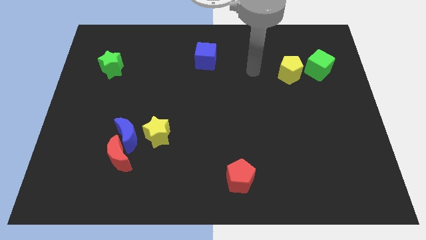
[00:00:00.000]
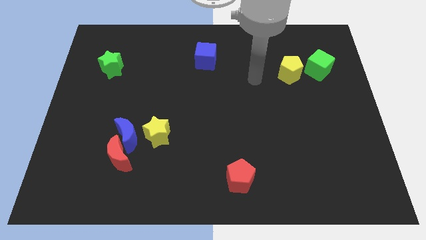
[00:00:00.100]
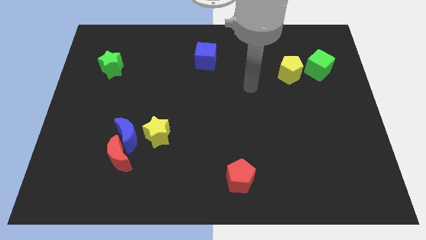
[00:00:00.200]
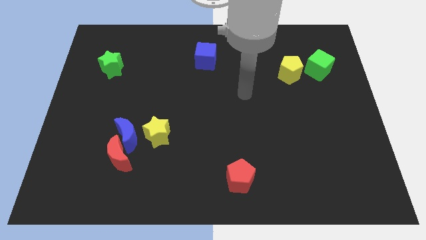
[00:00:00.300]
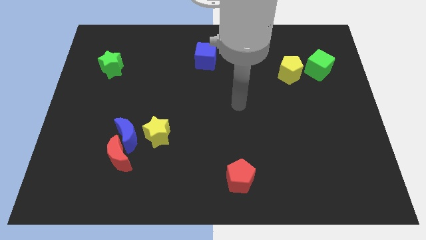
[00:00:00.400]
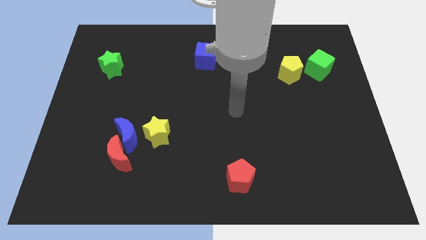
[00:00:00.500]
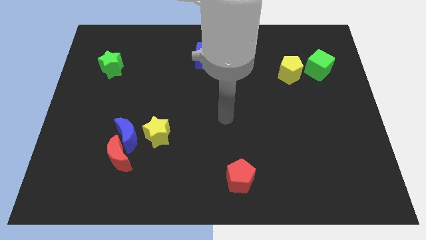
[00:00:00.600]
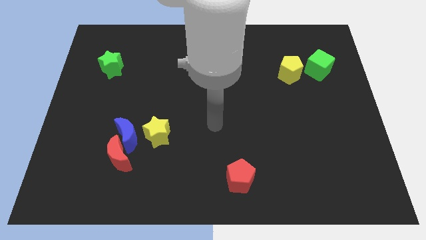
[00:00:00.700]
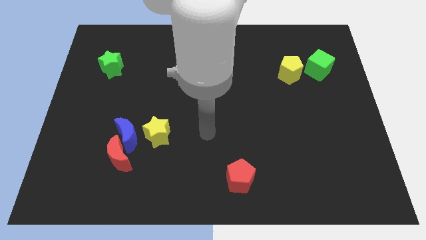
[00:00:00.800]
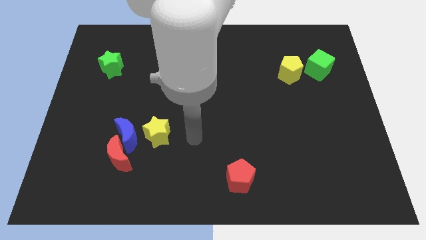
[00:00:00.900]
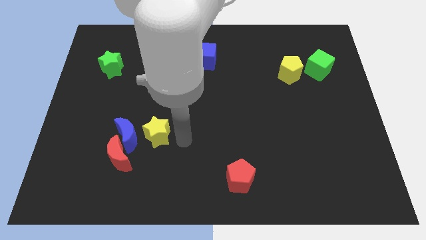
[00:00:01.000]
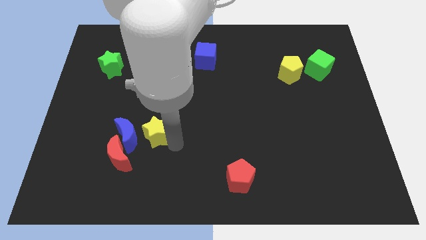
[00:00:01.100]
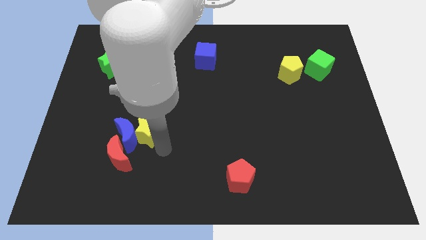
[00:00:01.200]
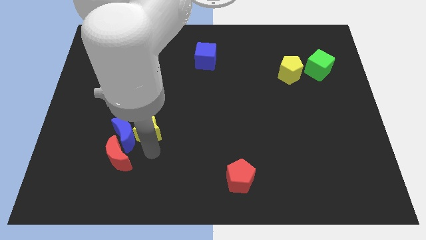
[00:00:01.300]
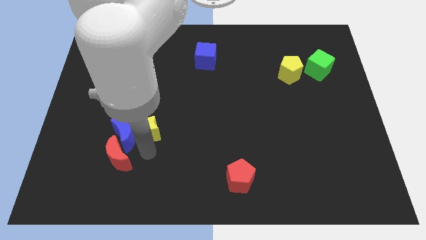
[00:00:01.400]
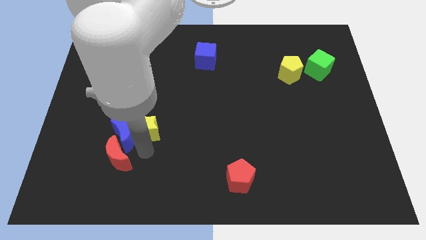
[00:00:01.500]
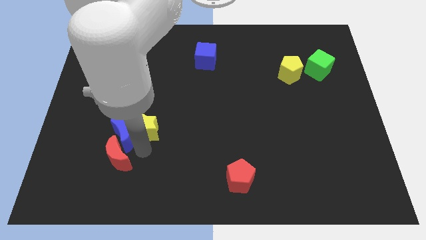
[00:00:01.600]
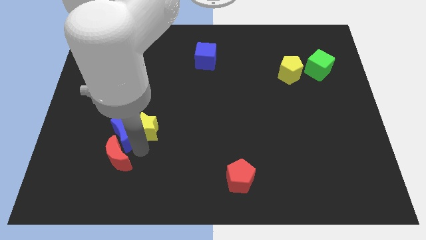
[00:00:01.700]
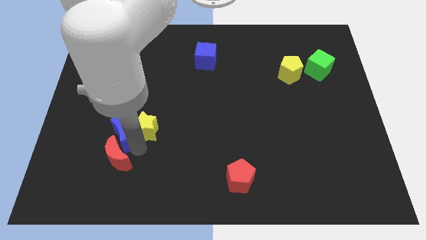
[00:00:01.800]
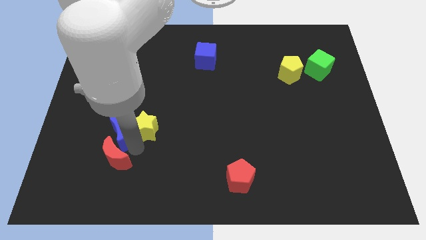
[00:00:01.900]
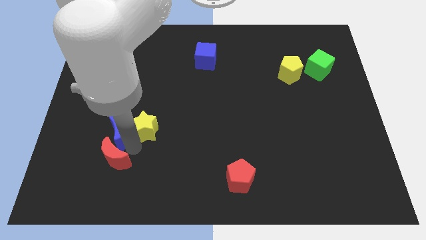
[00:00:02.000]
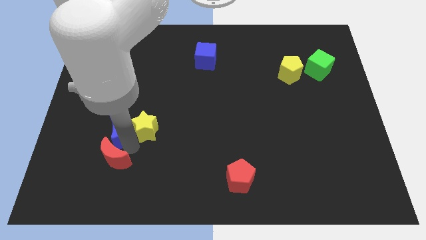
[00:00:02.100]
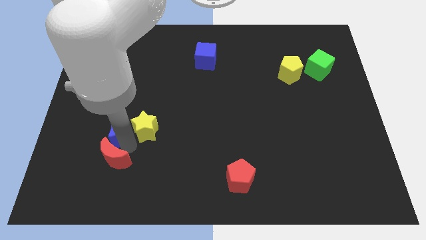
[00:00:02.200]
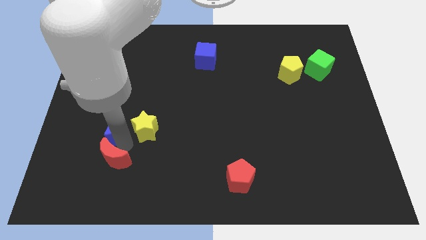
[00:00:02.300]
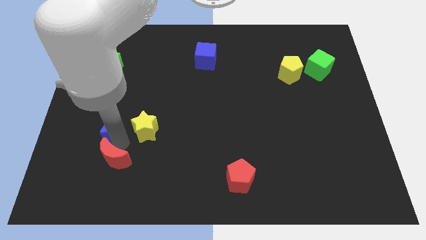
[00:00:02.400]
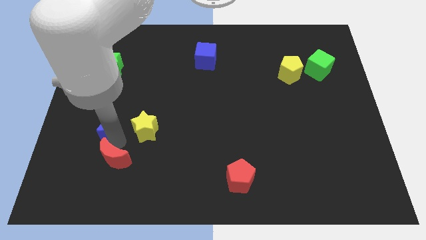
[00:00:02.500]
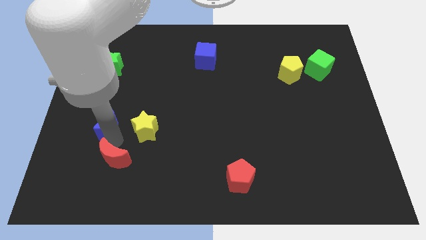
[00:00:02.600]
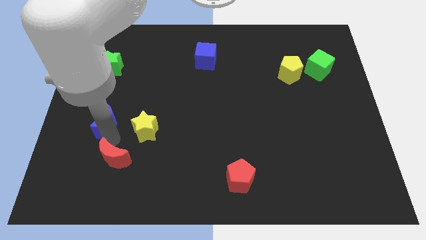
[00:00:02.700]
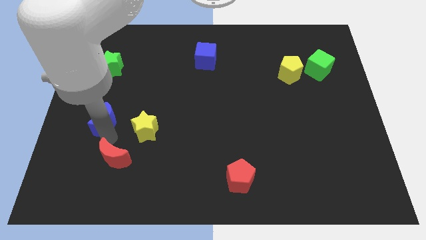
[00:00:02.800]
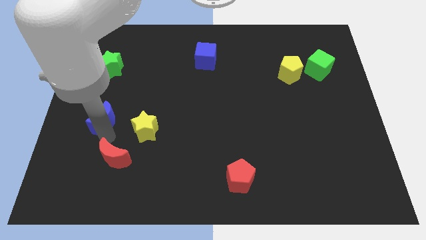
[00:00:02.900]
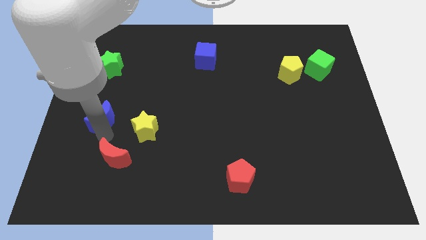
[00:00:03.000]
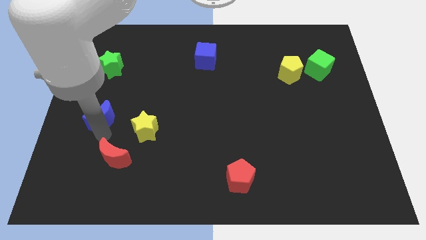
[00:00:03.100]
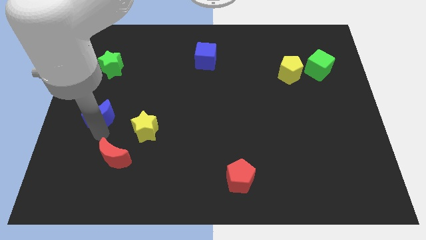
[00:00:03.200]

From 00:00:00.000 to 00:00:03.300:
pull the blue moon apart from the red moon and yellow star

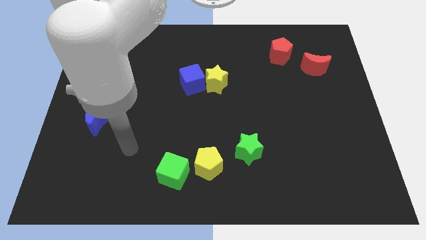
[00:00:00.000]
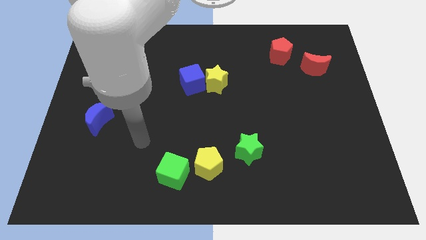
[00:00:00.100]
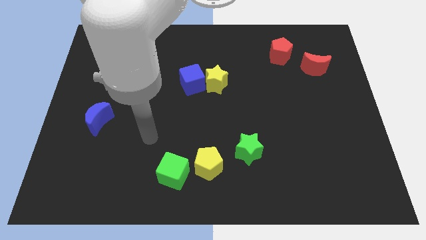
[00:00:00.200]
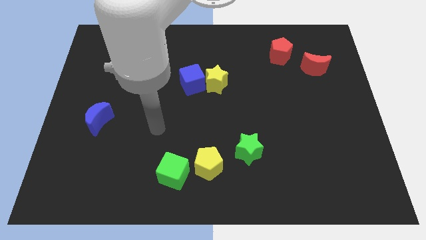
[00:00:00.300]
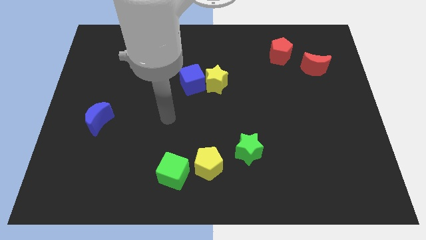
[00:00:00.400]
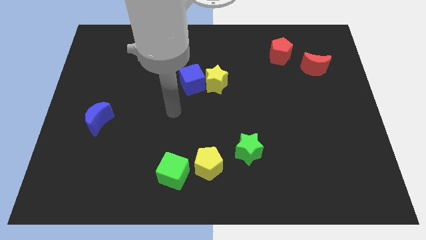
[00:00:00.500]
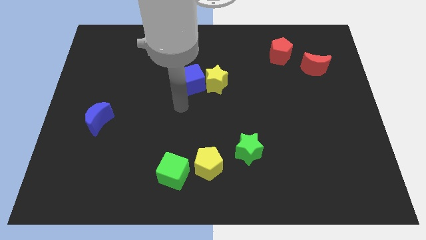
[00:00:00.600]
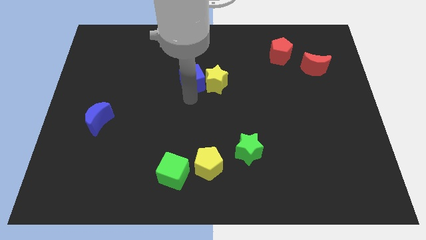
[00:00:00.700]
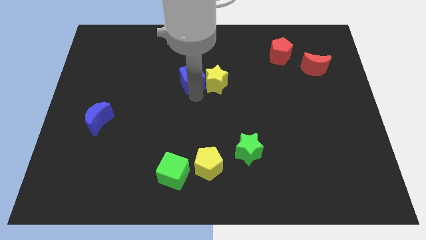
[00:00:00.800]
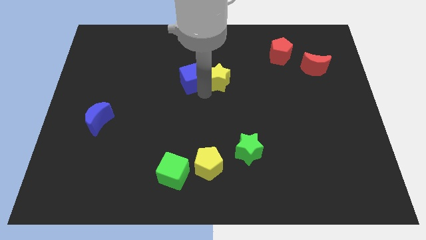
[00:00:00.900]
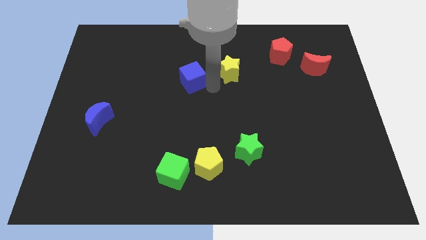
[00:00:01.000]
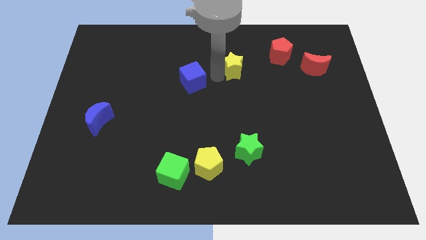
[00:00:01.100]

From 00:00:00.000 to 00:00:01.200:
move the blue cube away from the yellow star

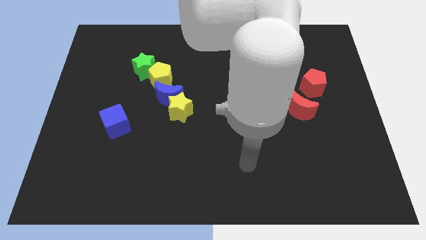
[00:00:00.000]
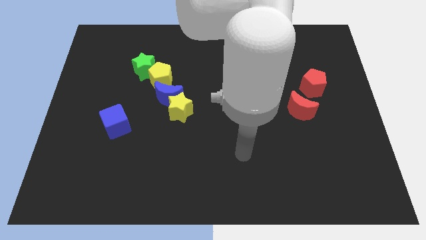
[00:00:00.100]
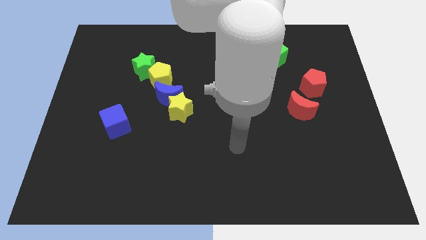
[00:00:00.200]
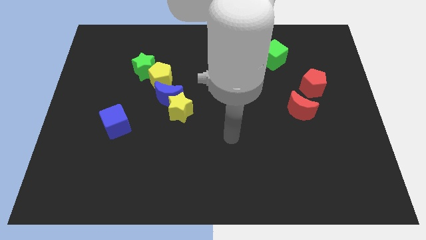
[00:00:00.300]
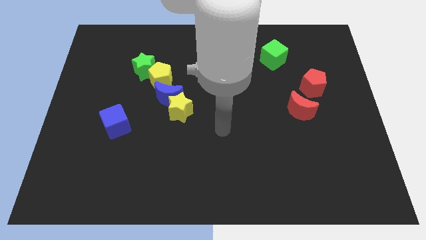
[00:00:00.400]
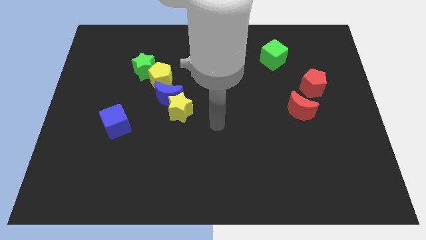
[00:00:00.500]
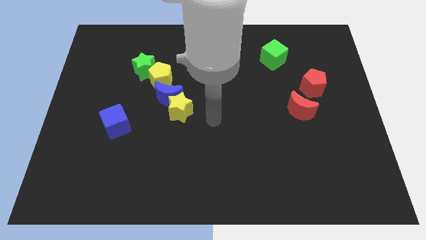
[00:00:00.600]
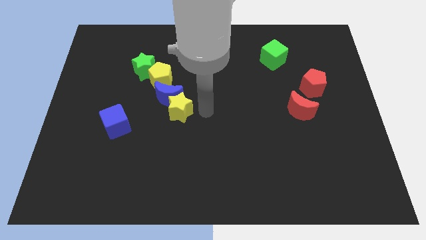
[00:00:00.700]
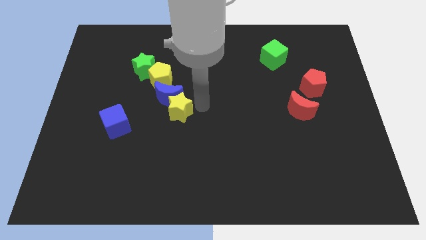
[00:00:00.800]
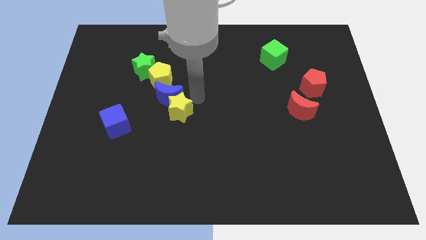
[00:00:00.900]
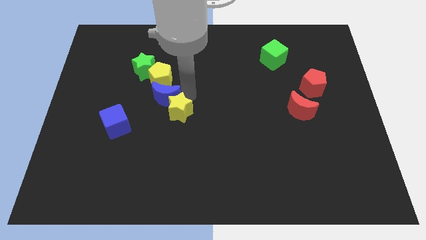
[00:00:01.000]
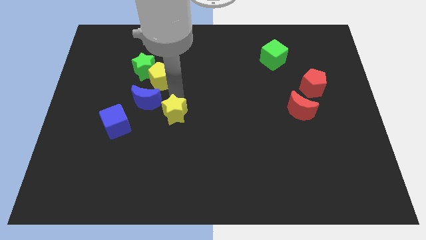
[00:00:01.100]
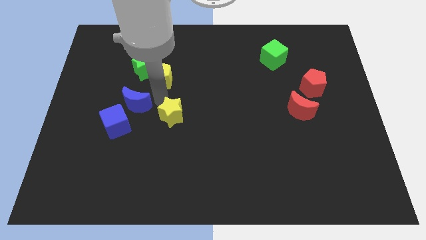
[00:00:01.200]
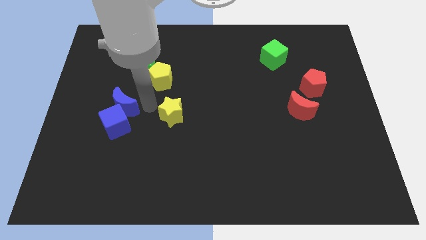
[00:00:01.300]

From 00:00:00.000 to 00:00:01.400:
move the yellow star away from the blue moon

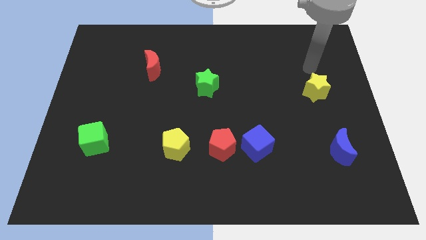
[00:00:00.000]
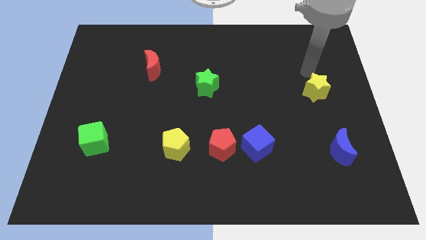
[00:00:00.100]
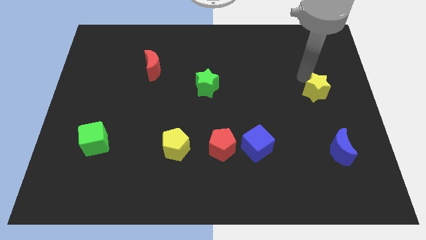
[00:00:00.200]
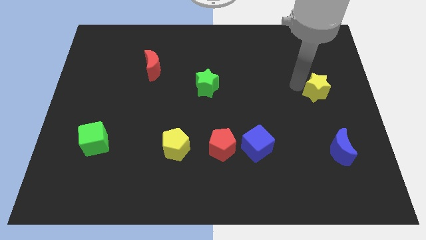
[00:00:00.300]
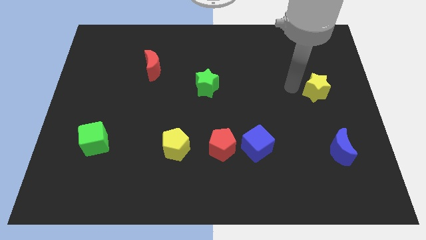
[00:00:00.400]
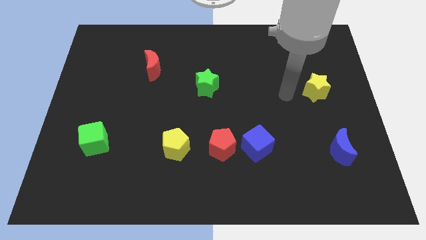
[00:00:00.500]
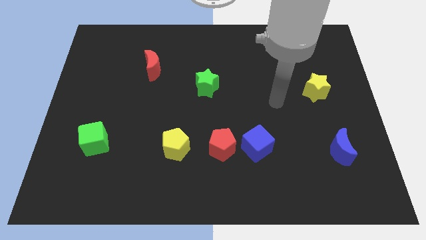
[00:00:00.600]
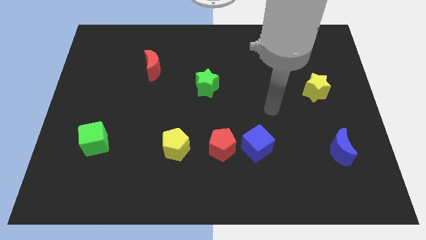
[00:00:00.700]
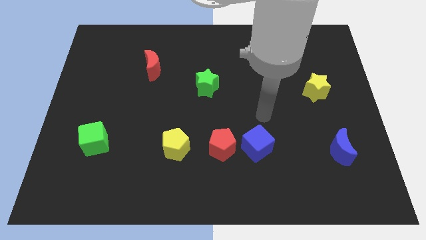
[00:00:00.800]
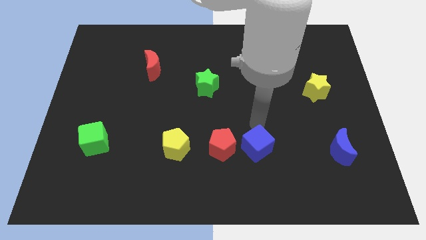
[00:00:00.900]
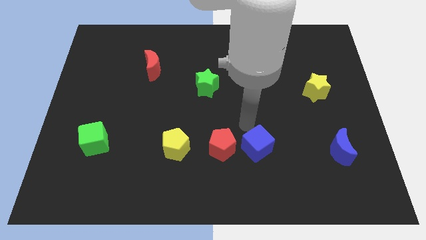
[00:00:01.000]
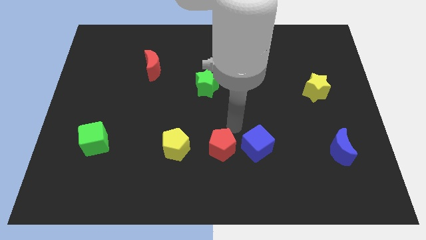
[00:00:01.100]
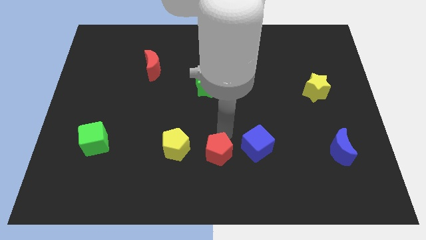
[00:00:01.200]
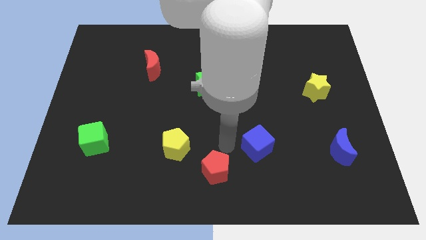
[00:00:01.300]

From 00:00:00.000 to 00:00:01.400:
pull the blue cube apart from the red pentagon

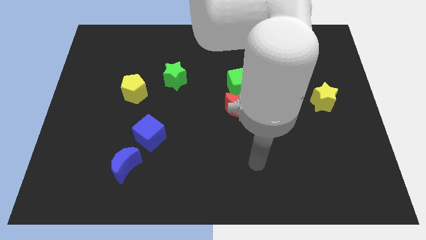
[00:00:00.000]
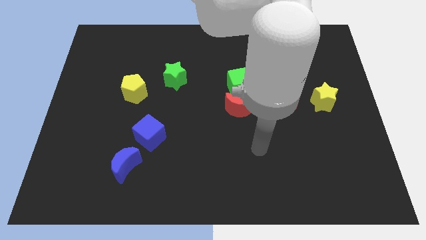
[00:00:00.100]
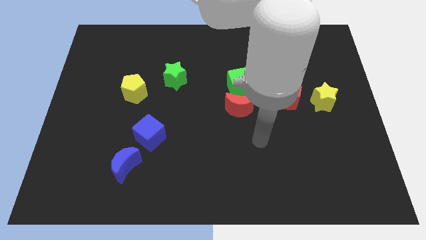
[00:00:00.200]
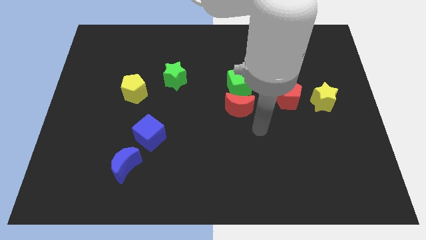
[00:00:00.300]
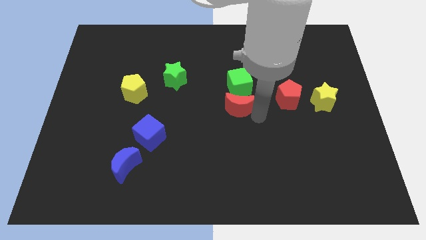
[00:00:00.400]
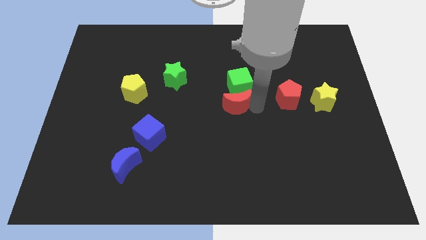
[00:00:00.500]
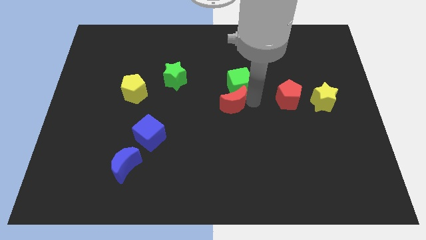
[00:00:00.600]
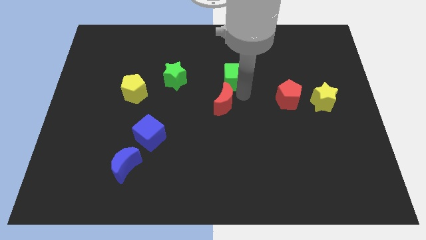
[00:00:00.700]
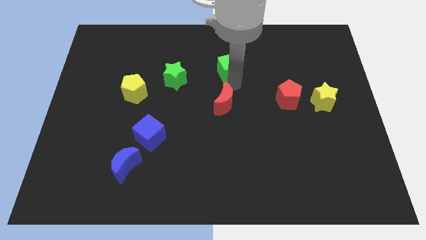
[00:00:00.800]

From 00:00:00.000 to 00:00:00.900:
move the red moon away from the green cube

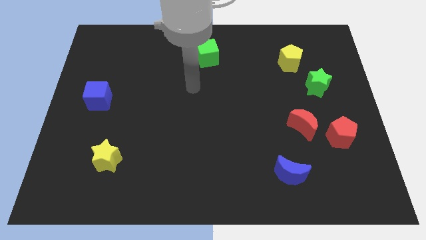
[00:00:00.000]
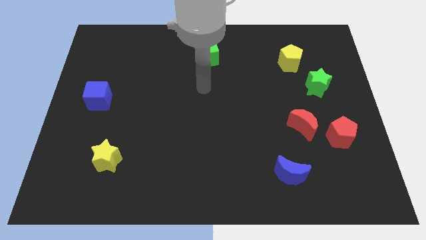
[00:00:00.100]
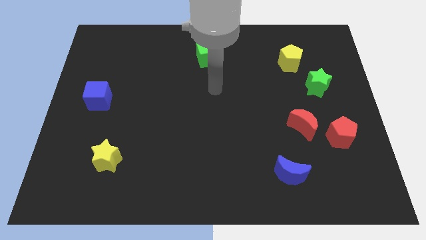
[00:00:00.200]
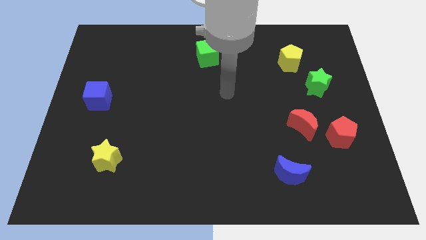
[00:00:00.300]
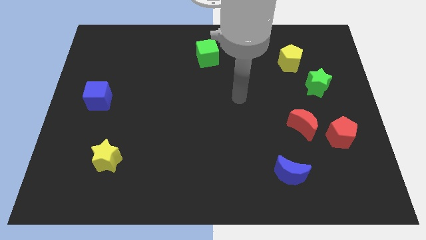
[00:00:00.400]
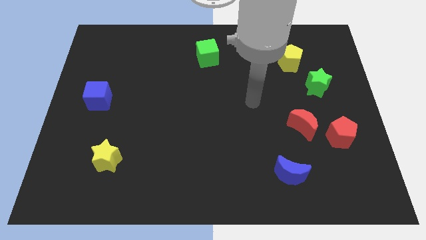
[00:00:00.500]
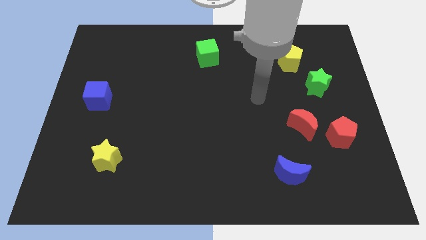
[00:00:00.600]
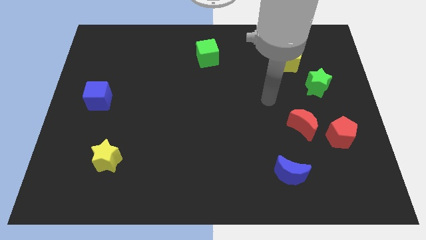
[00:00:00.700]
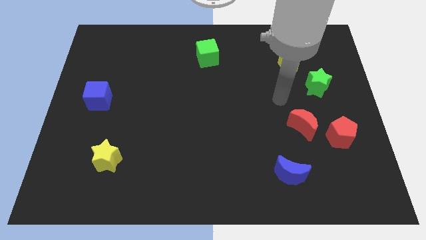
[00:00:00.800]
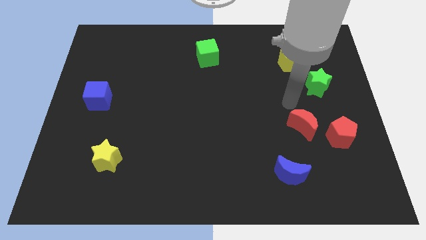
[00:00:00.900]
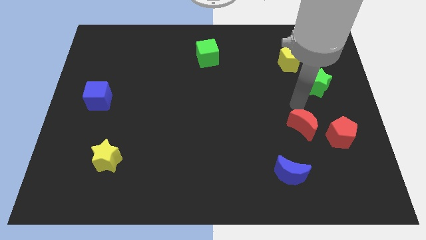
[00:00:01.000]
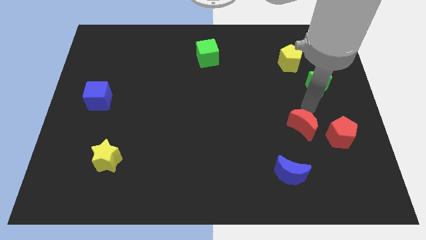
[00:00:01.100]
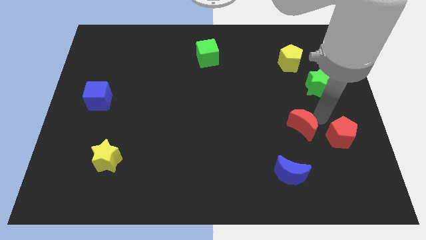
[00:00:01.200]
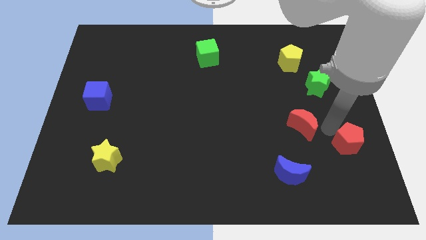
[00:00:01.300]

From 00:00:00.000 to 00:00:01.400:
separate the red moon from the red pentagon
